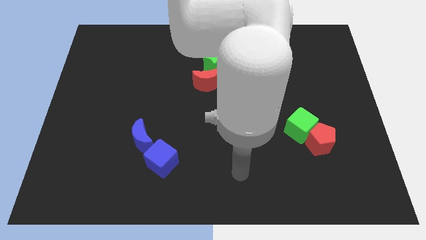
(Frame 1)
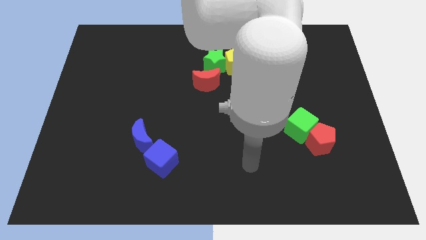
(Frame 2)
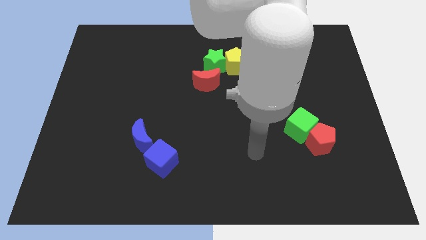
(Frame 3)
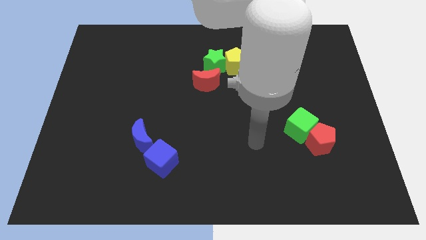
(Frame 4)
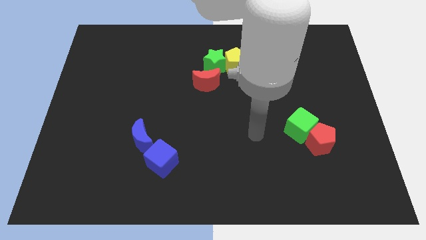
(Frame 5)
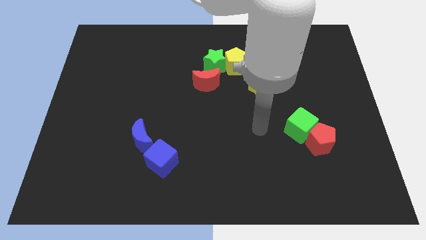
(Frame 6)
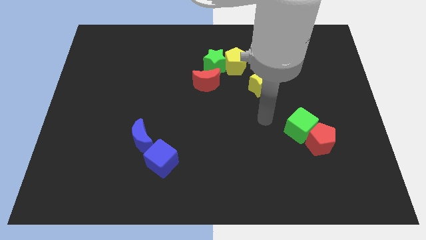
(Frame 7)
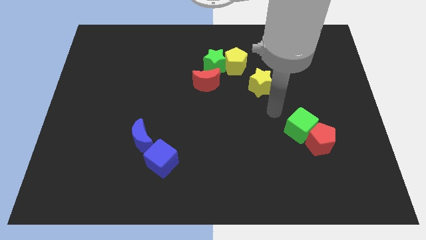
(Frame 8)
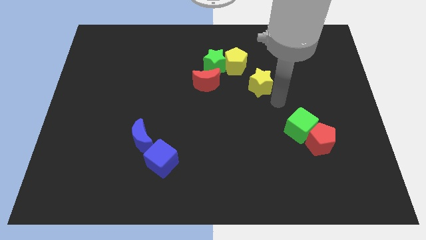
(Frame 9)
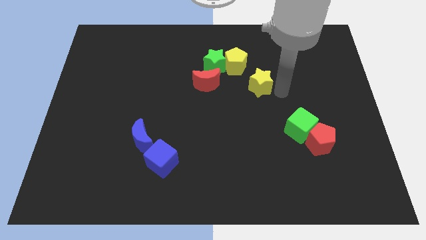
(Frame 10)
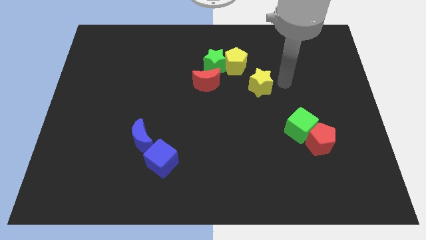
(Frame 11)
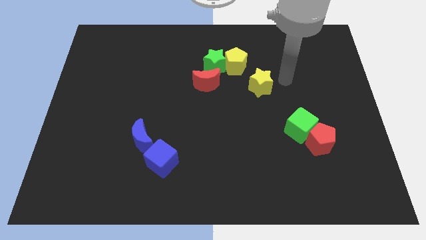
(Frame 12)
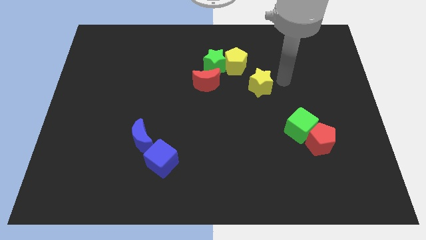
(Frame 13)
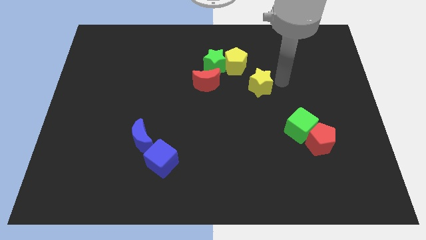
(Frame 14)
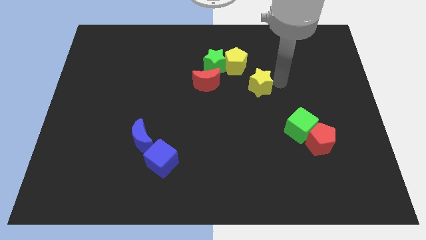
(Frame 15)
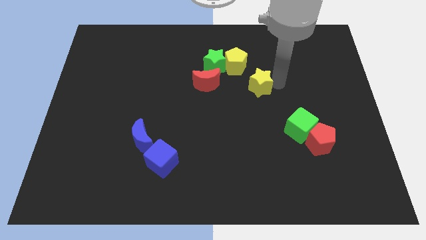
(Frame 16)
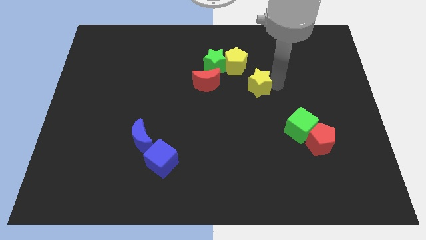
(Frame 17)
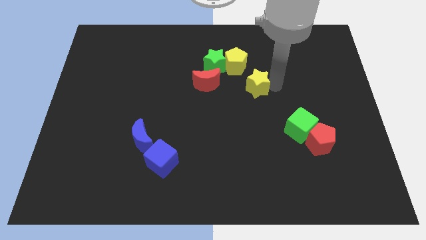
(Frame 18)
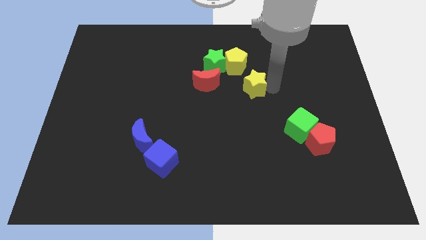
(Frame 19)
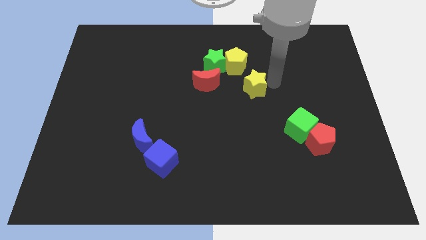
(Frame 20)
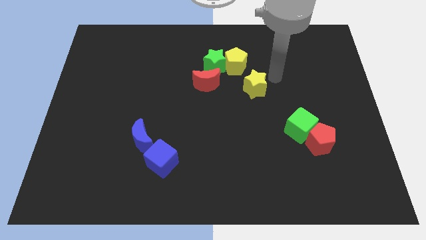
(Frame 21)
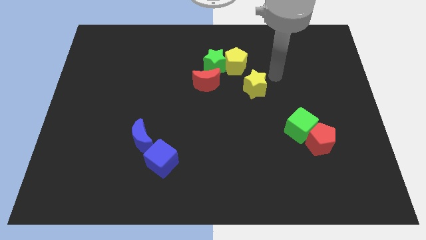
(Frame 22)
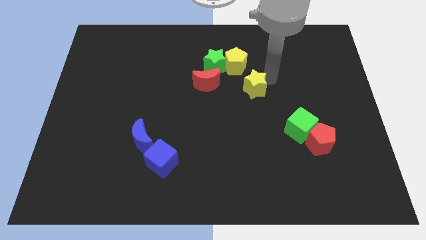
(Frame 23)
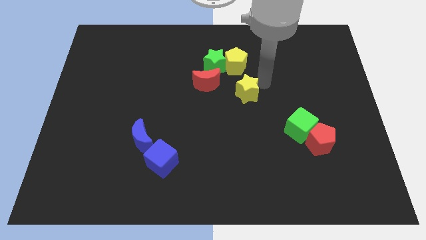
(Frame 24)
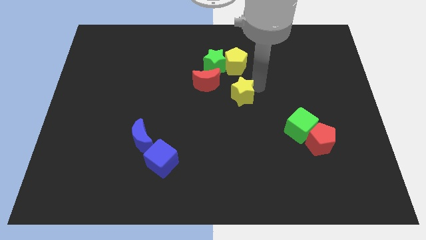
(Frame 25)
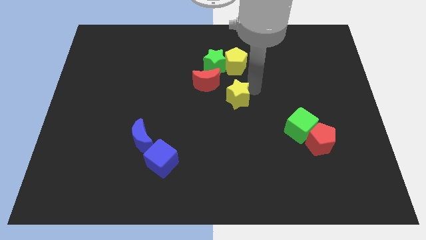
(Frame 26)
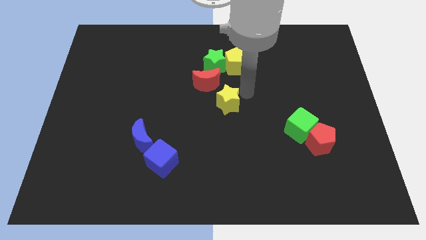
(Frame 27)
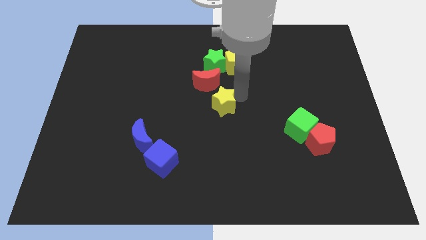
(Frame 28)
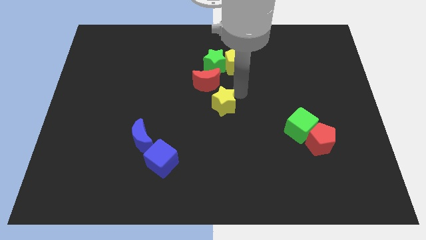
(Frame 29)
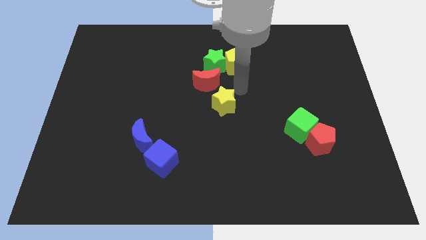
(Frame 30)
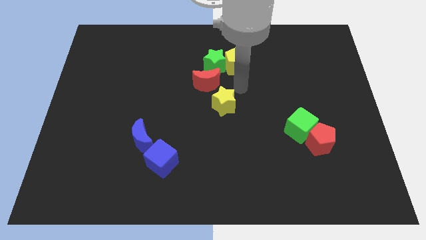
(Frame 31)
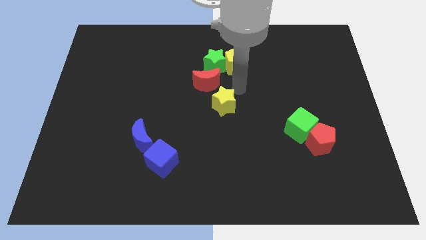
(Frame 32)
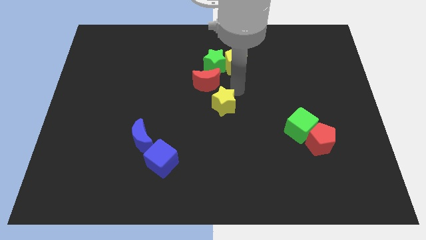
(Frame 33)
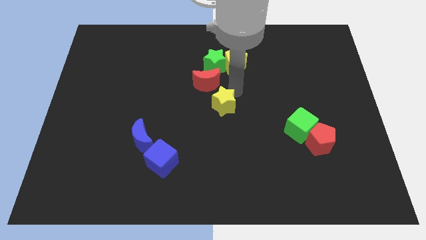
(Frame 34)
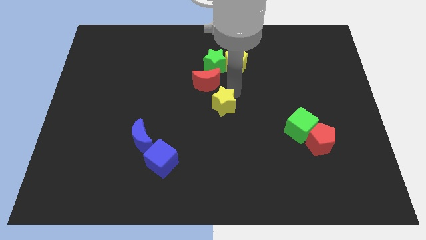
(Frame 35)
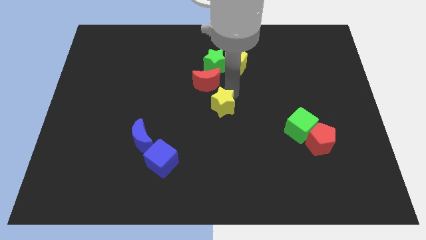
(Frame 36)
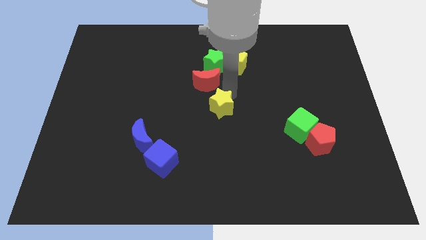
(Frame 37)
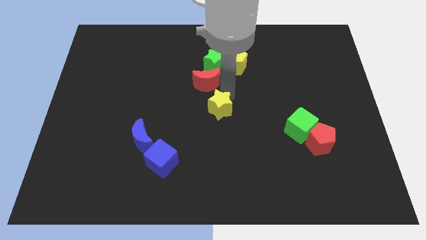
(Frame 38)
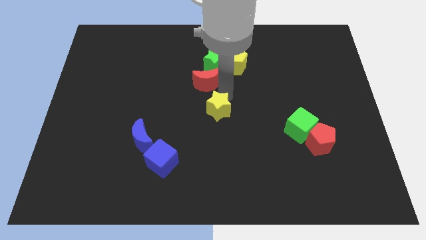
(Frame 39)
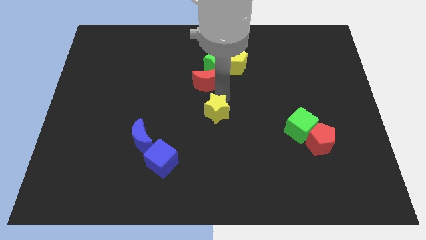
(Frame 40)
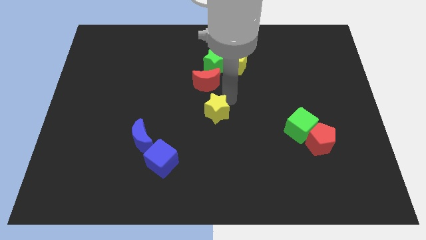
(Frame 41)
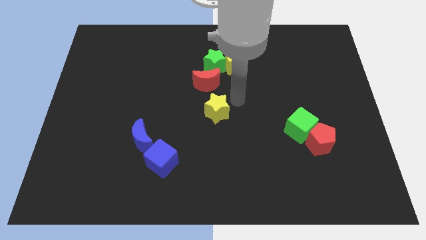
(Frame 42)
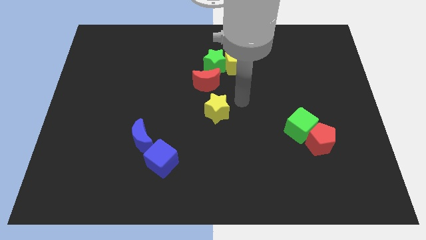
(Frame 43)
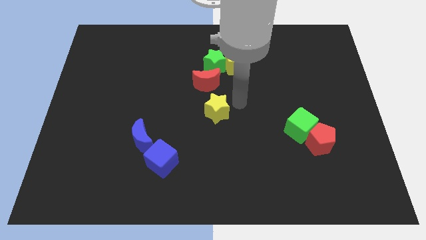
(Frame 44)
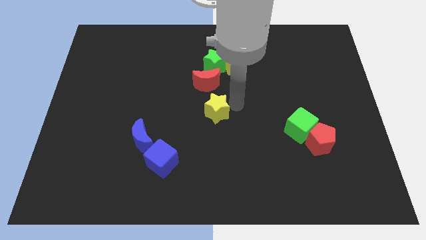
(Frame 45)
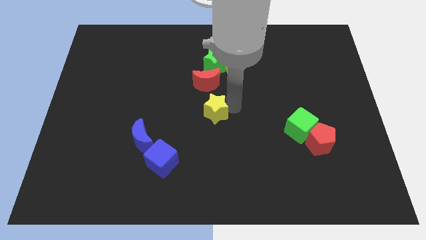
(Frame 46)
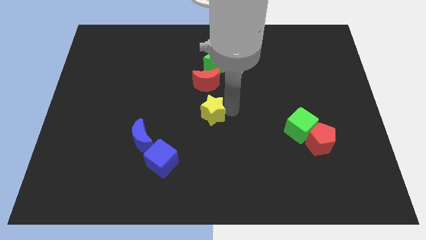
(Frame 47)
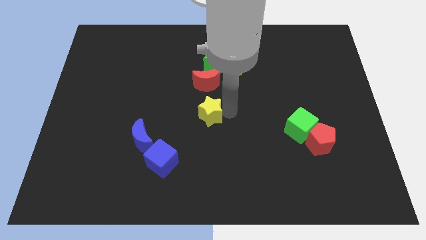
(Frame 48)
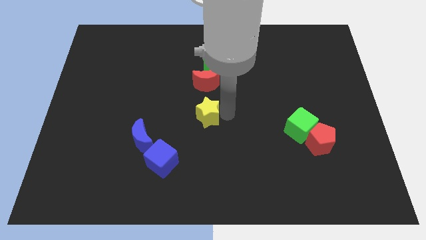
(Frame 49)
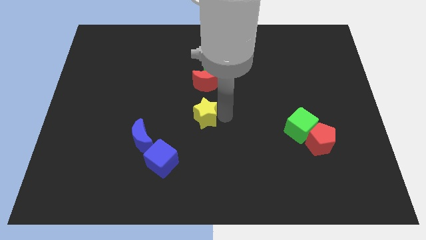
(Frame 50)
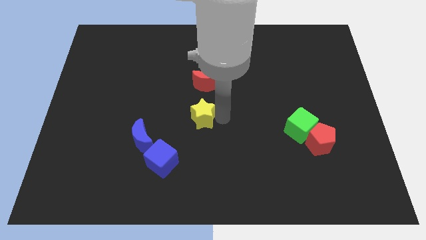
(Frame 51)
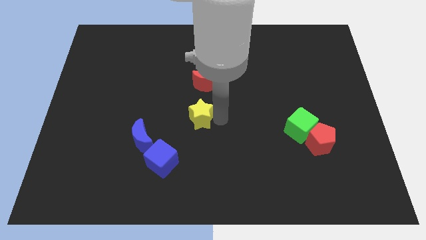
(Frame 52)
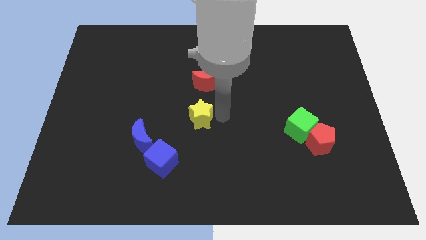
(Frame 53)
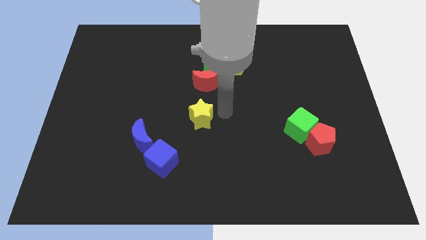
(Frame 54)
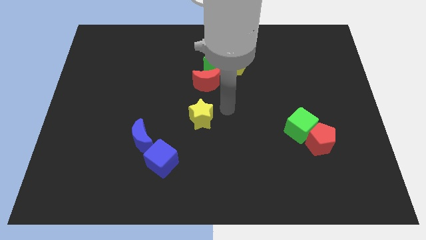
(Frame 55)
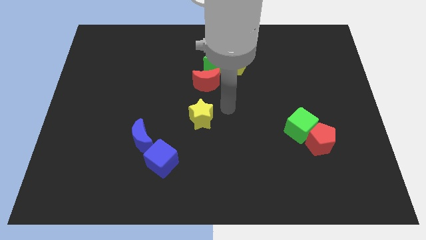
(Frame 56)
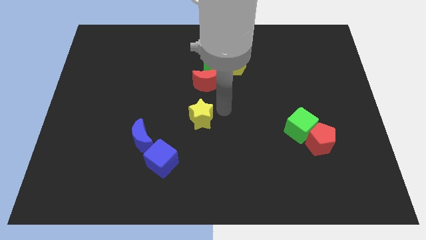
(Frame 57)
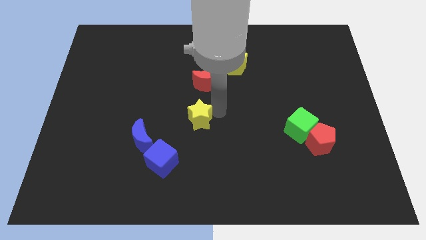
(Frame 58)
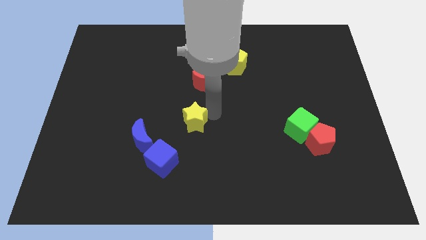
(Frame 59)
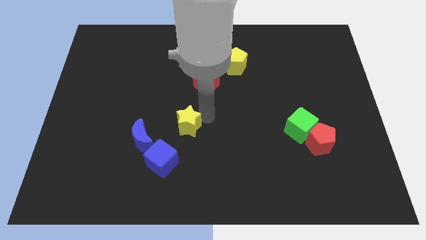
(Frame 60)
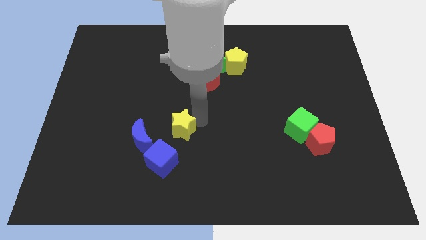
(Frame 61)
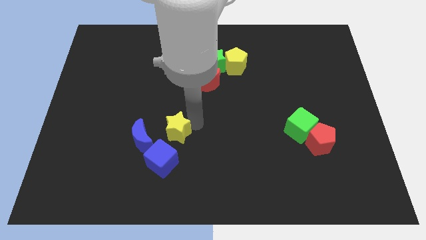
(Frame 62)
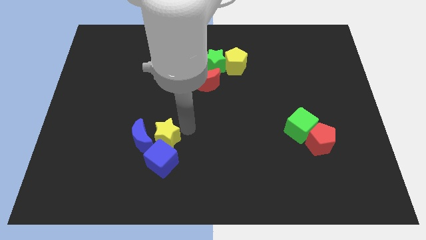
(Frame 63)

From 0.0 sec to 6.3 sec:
slide the yellow star towards the blue moon
